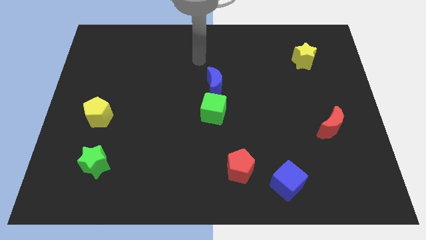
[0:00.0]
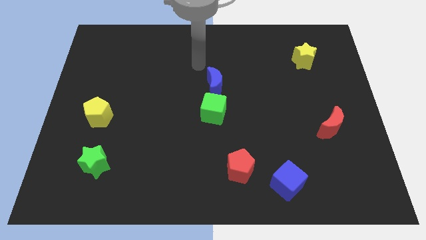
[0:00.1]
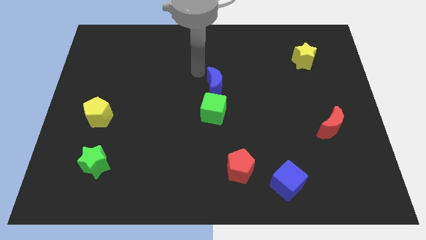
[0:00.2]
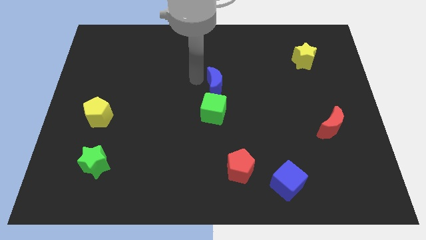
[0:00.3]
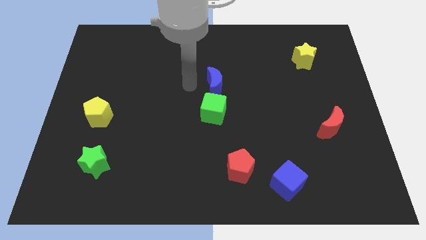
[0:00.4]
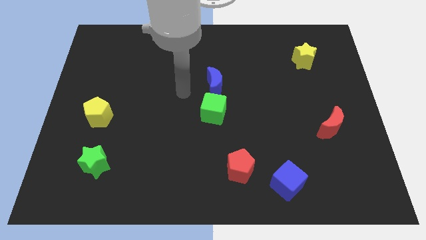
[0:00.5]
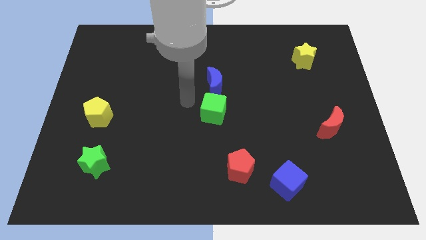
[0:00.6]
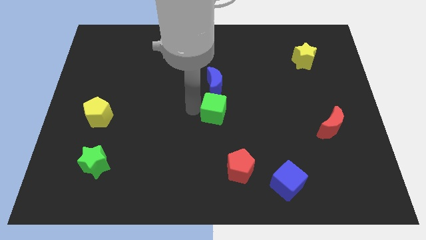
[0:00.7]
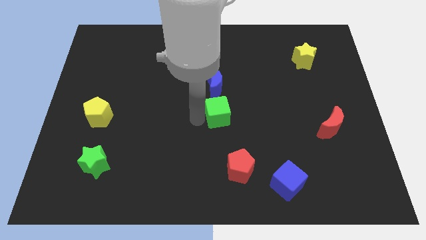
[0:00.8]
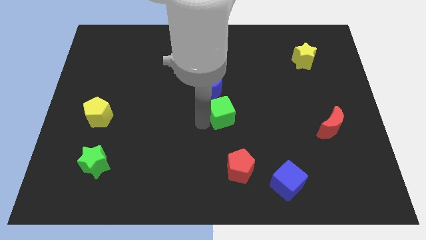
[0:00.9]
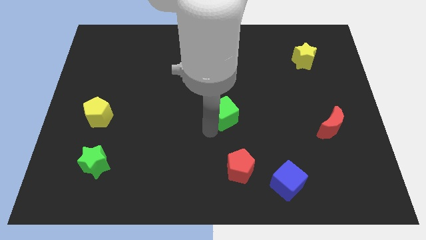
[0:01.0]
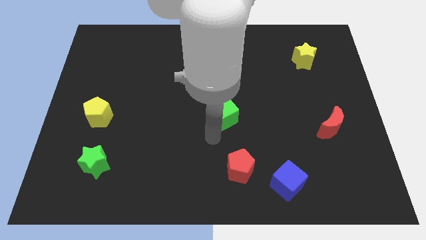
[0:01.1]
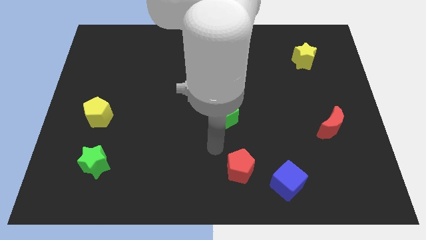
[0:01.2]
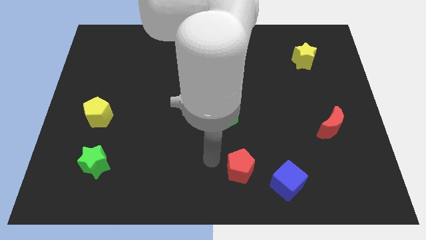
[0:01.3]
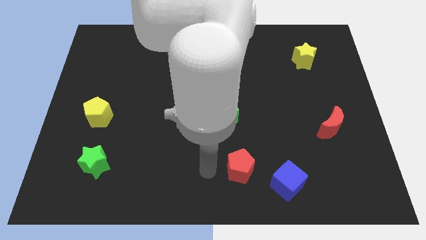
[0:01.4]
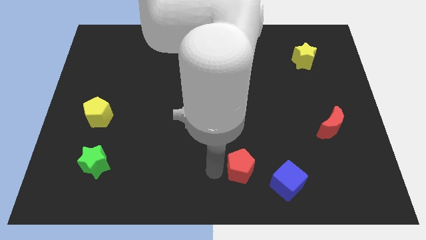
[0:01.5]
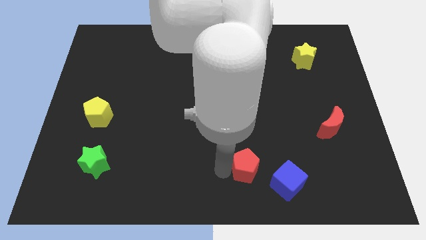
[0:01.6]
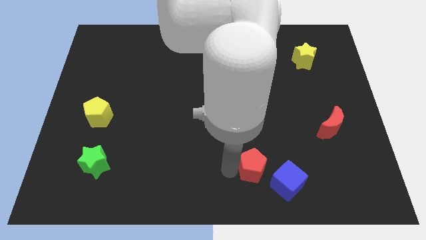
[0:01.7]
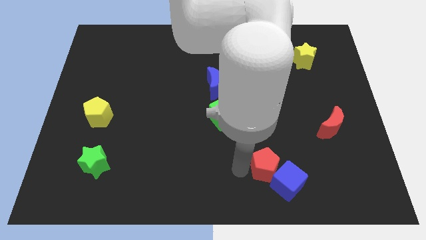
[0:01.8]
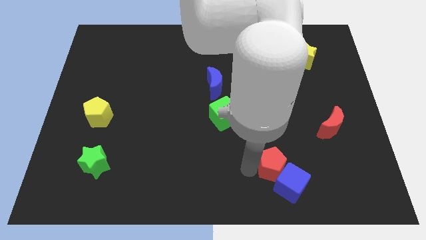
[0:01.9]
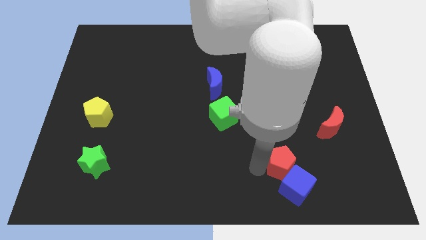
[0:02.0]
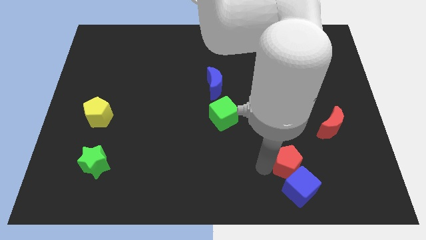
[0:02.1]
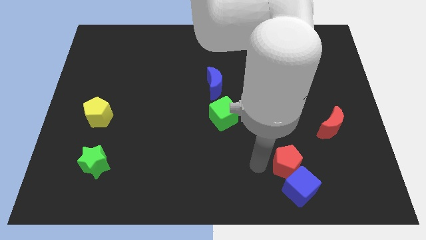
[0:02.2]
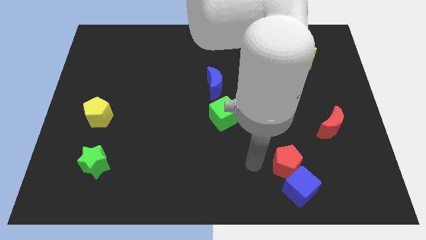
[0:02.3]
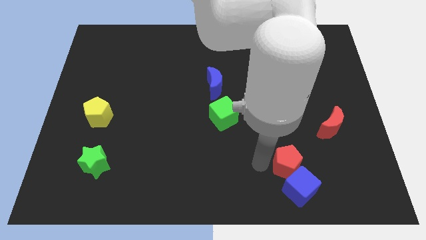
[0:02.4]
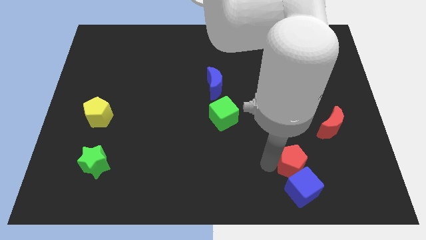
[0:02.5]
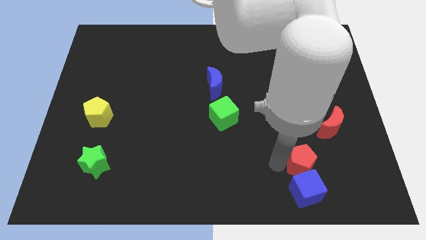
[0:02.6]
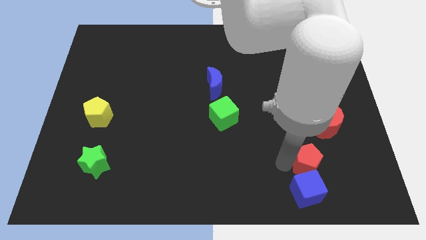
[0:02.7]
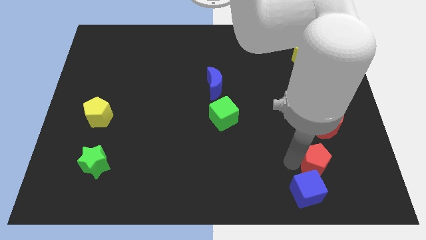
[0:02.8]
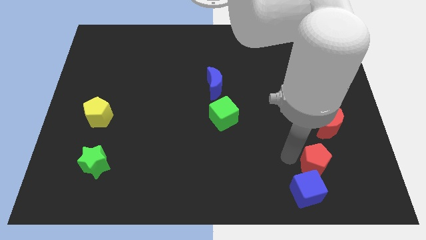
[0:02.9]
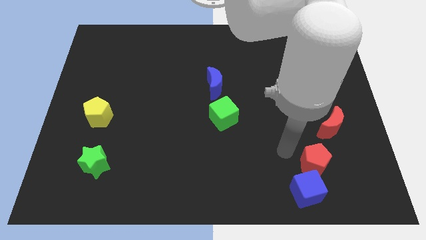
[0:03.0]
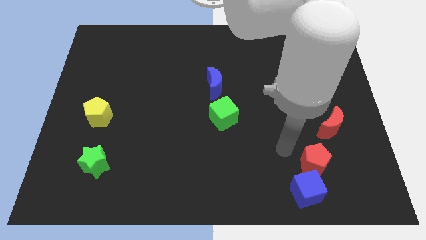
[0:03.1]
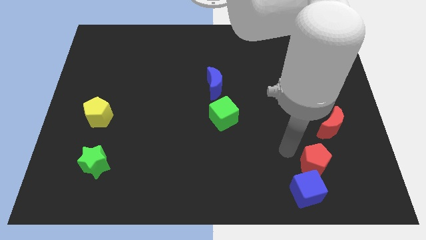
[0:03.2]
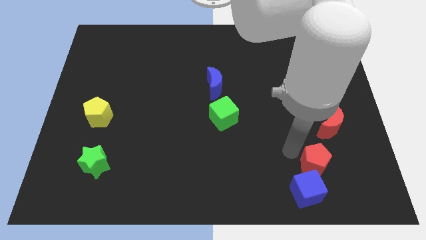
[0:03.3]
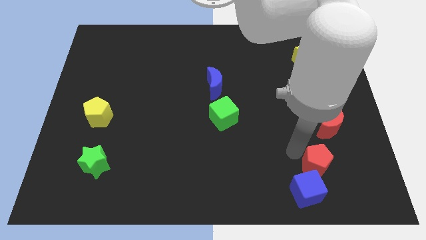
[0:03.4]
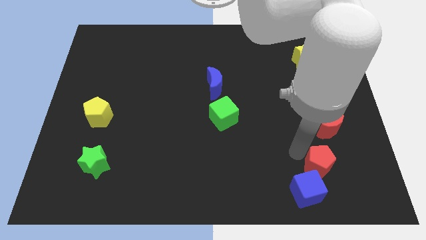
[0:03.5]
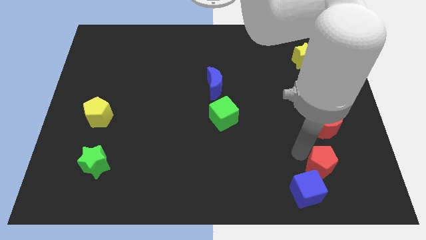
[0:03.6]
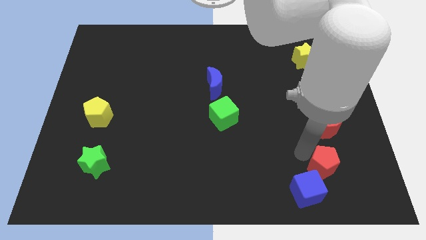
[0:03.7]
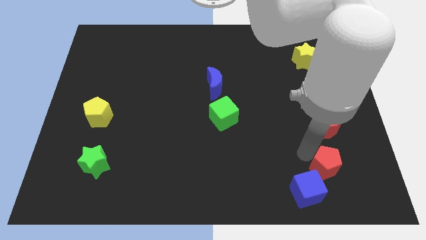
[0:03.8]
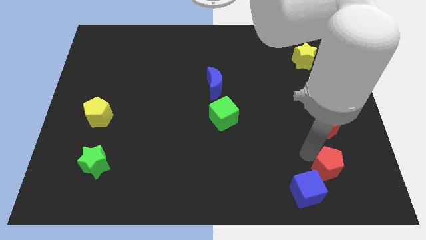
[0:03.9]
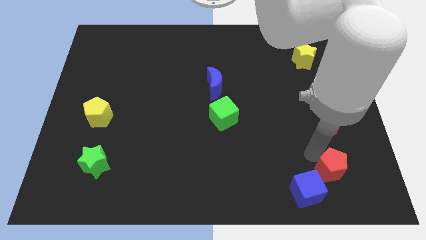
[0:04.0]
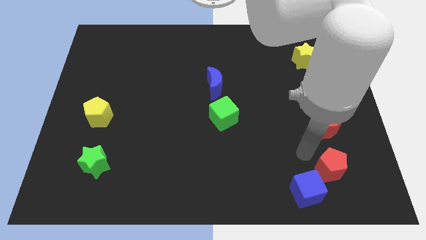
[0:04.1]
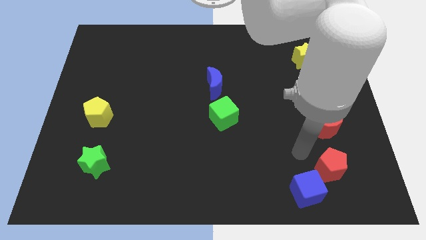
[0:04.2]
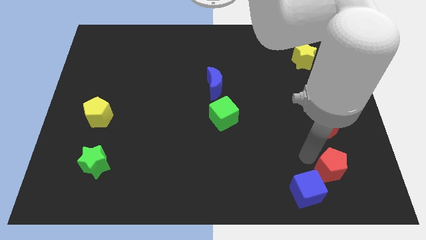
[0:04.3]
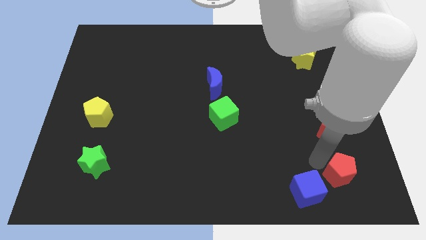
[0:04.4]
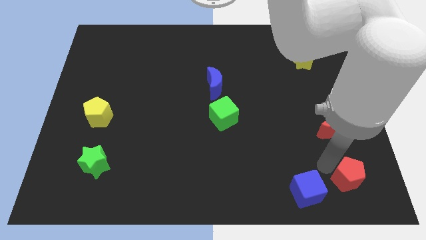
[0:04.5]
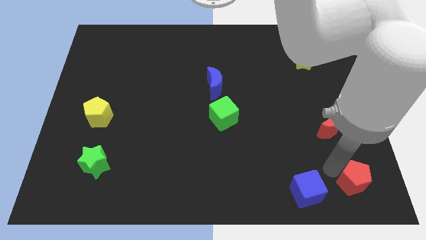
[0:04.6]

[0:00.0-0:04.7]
slide the red pentagon to the bottom right corner

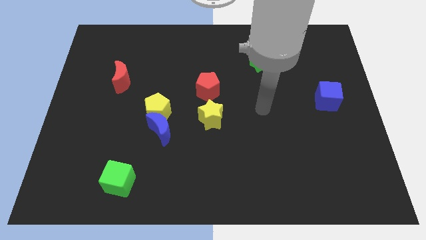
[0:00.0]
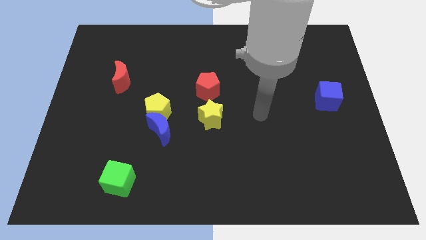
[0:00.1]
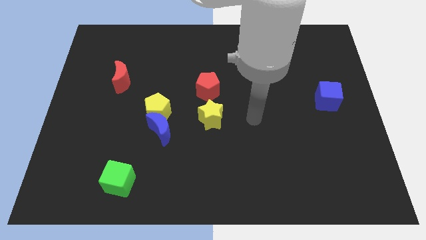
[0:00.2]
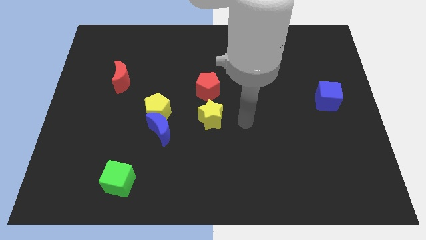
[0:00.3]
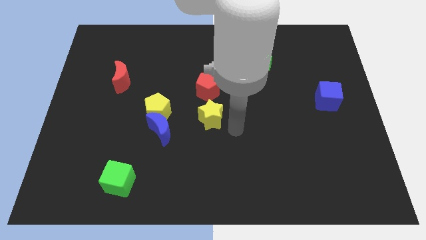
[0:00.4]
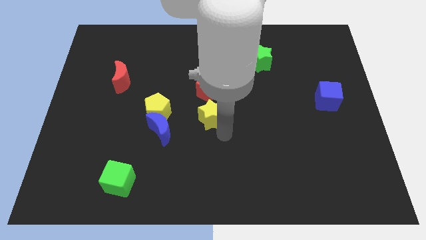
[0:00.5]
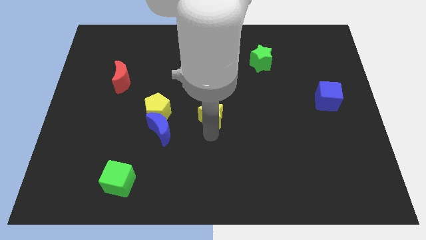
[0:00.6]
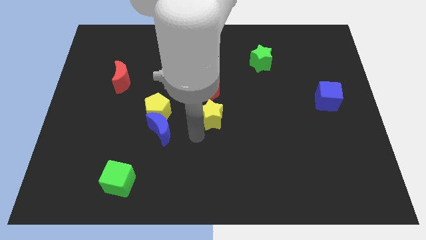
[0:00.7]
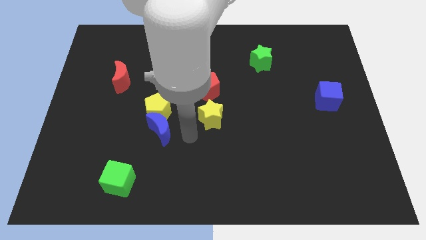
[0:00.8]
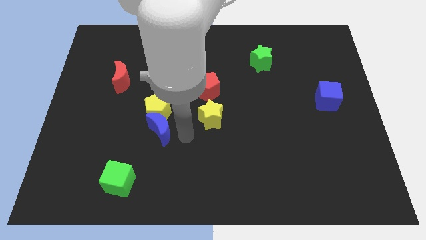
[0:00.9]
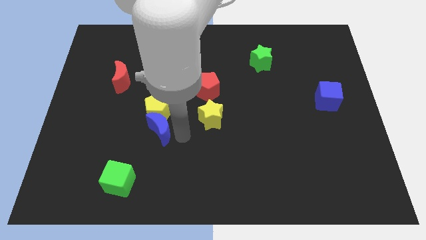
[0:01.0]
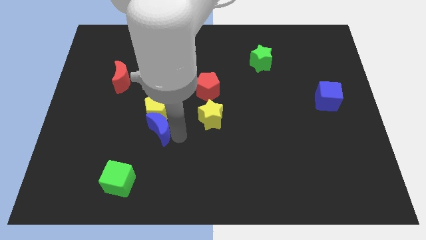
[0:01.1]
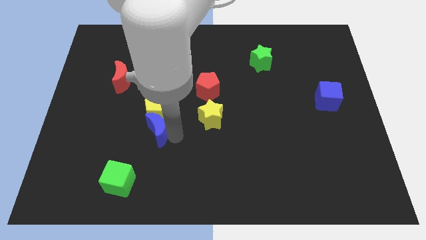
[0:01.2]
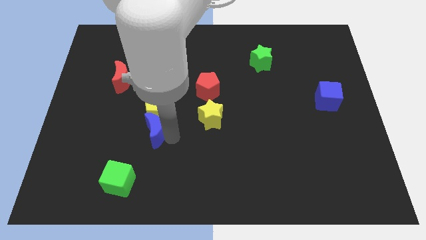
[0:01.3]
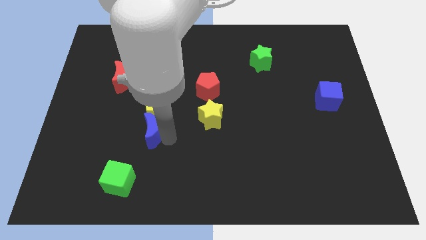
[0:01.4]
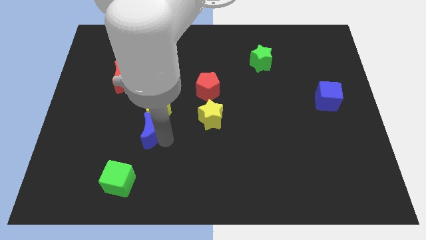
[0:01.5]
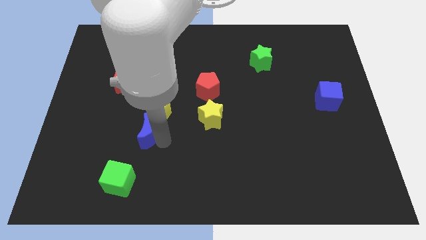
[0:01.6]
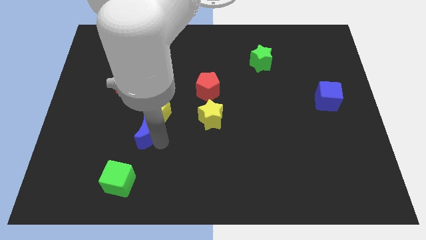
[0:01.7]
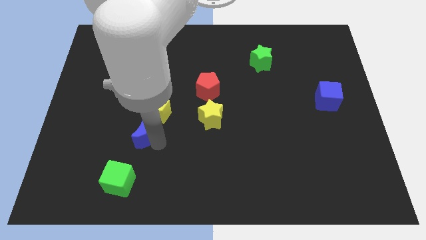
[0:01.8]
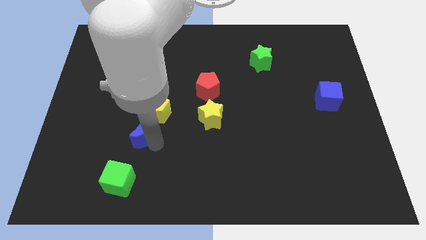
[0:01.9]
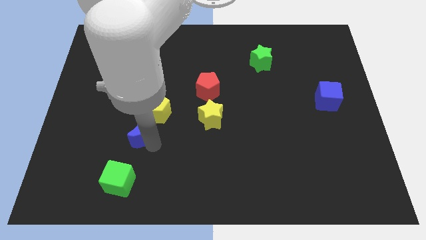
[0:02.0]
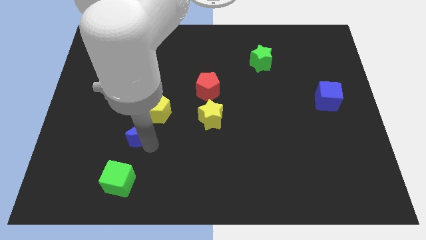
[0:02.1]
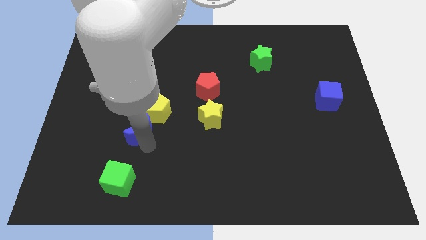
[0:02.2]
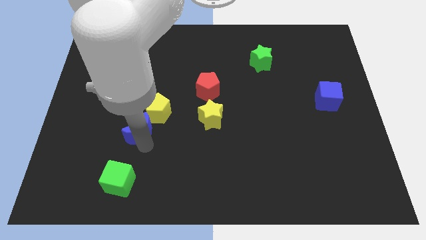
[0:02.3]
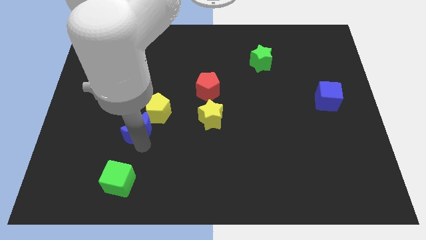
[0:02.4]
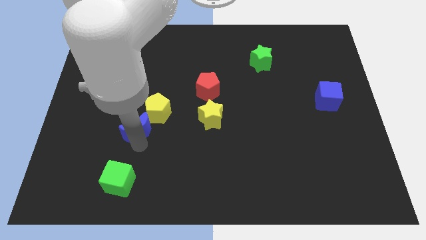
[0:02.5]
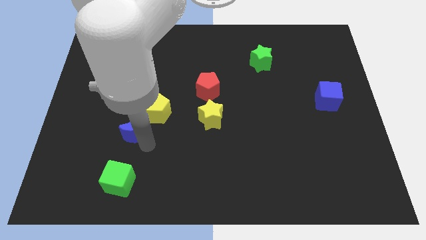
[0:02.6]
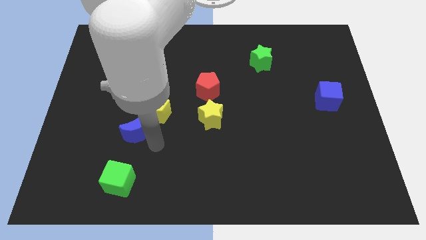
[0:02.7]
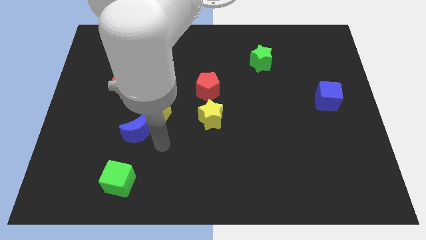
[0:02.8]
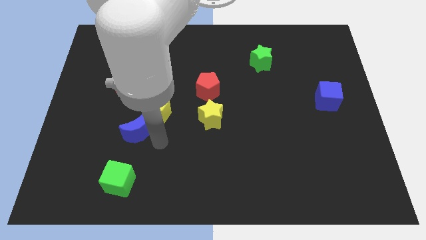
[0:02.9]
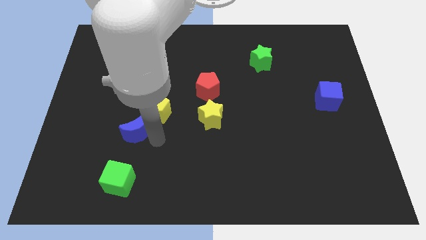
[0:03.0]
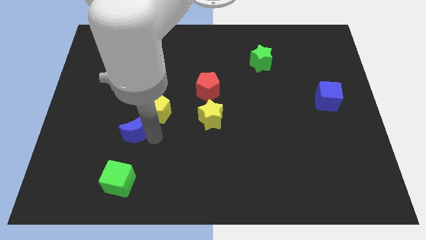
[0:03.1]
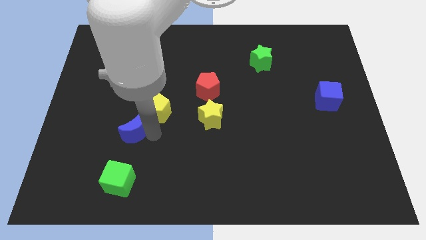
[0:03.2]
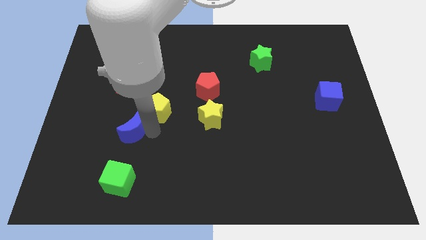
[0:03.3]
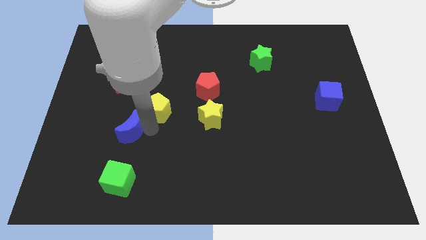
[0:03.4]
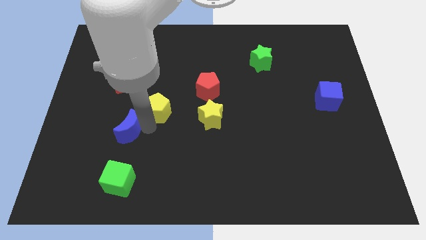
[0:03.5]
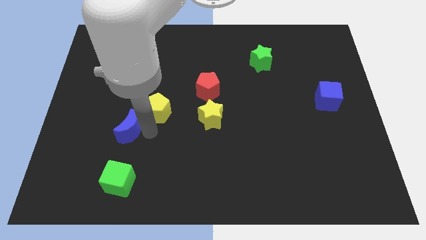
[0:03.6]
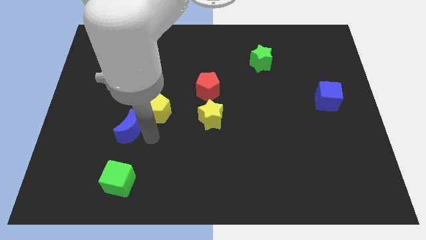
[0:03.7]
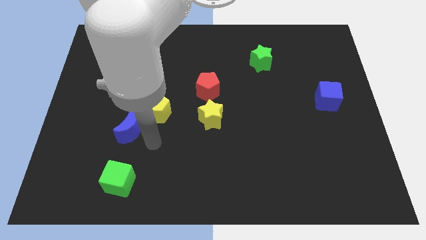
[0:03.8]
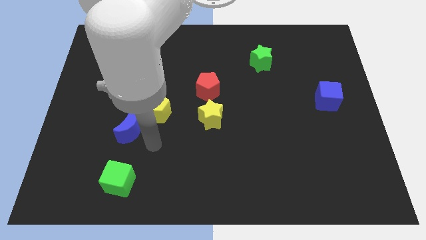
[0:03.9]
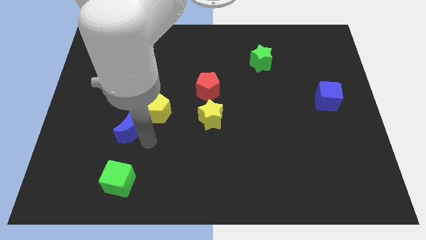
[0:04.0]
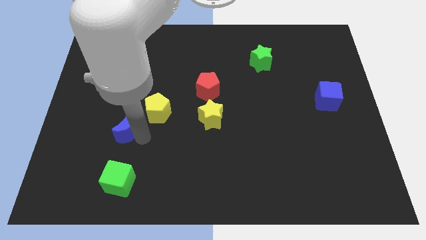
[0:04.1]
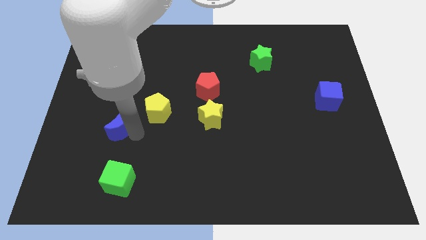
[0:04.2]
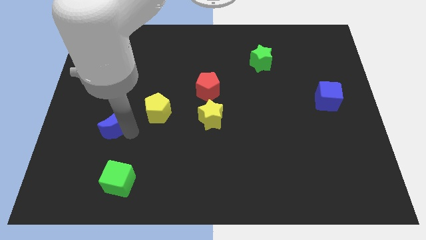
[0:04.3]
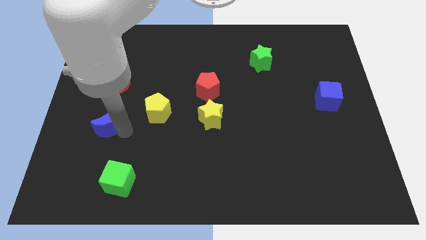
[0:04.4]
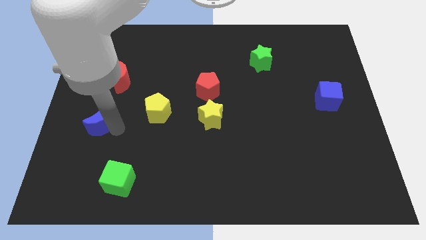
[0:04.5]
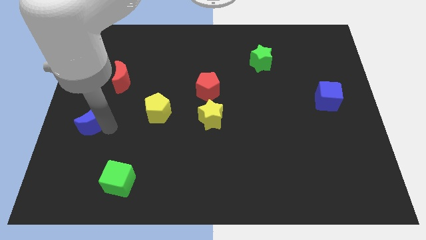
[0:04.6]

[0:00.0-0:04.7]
move the blue moon to the center left
